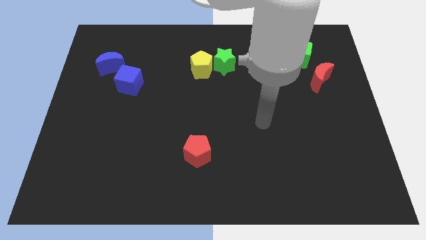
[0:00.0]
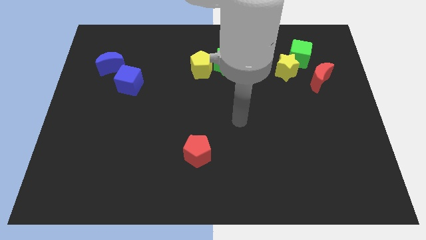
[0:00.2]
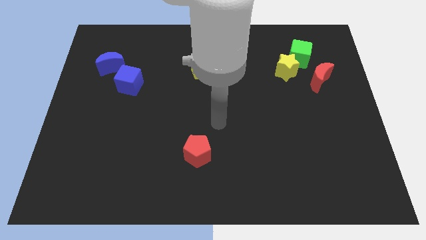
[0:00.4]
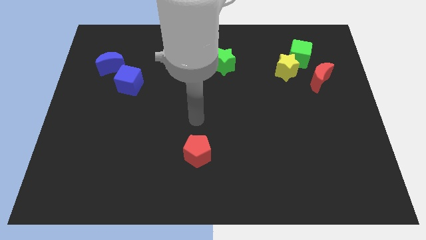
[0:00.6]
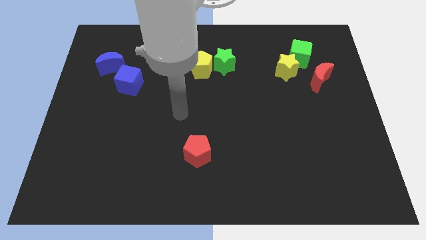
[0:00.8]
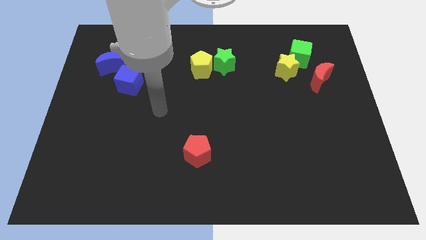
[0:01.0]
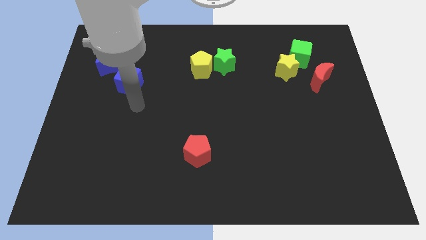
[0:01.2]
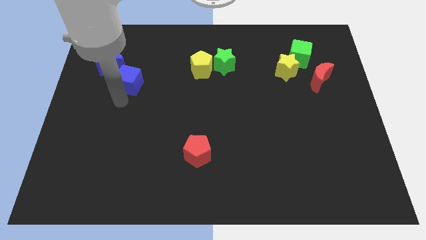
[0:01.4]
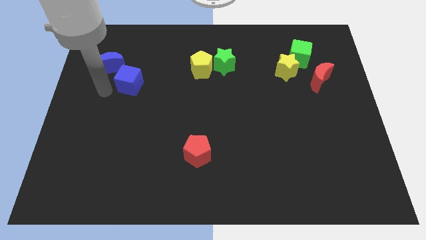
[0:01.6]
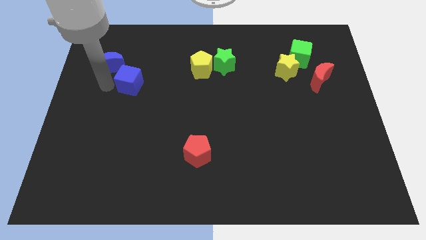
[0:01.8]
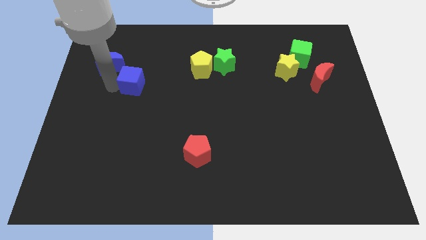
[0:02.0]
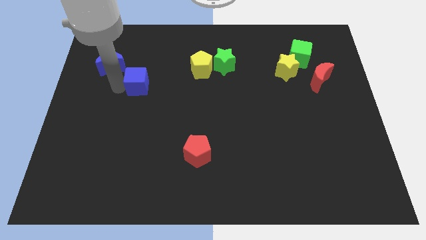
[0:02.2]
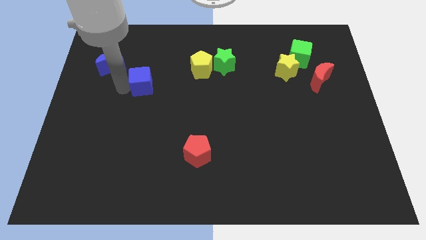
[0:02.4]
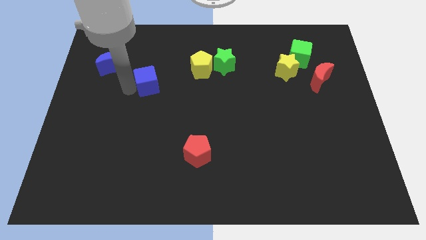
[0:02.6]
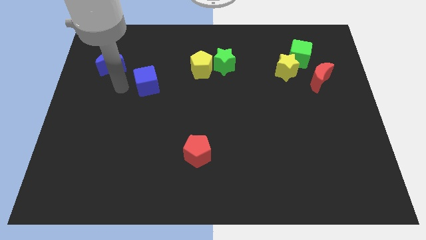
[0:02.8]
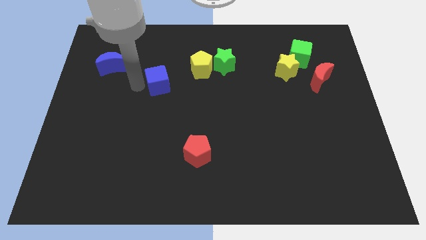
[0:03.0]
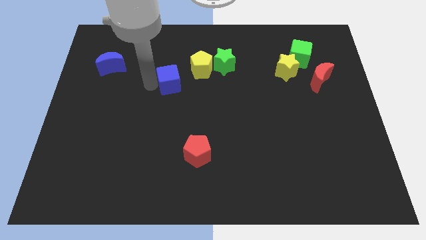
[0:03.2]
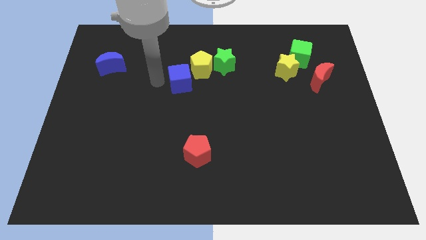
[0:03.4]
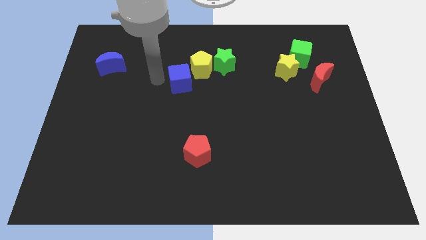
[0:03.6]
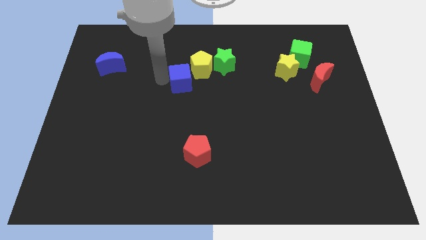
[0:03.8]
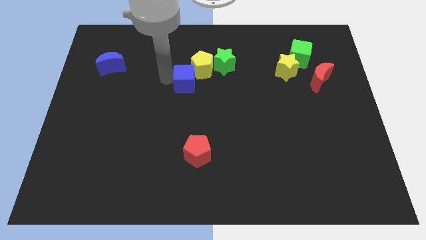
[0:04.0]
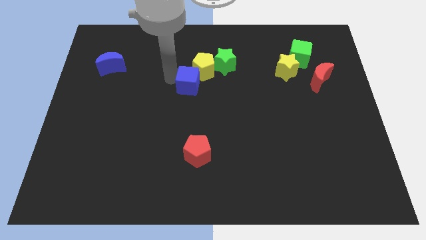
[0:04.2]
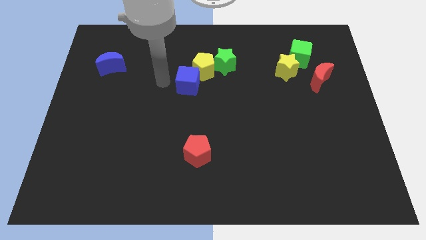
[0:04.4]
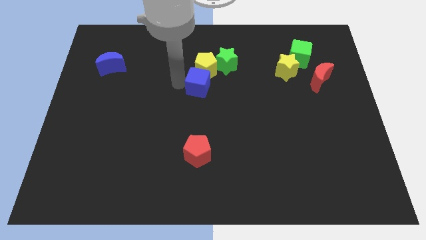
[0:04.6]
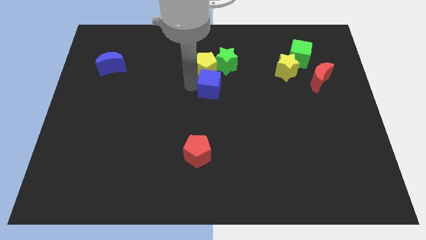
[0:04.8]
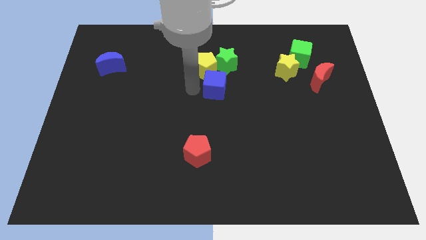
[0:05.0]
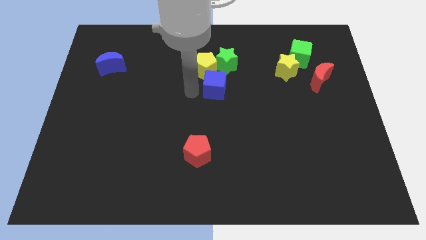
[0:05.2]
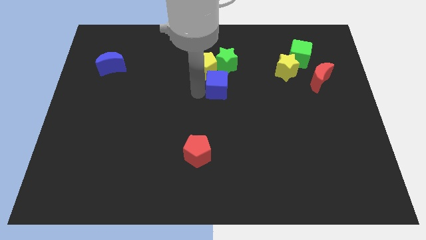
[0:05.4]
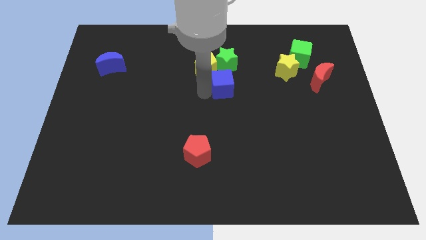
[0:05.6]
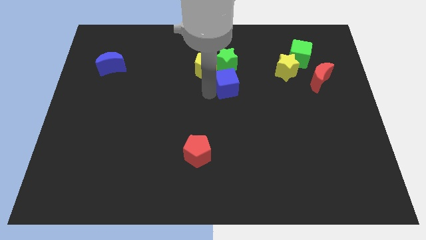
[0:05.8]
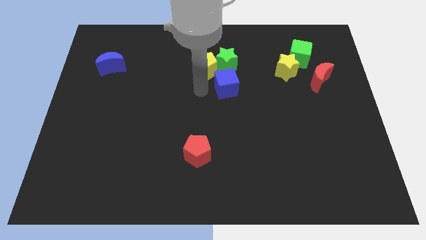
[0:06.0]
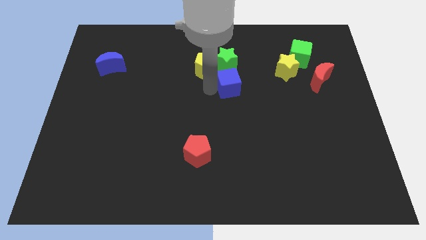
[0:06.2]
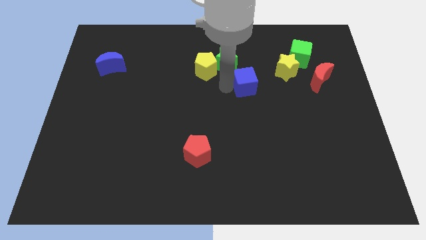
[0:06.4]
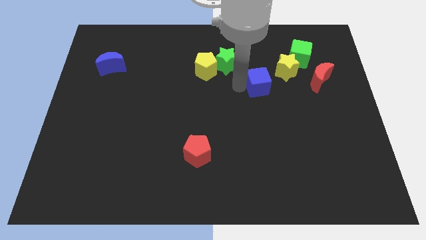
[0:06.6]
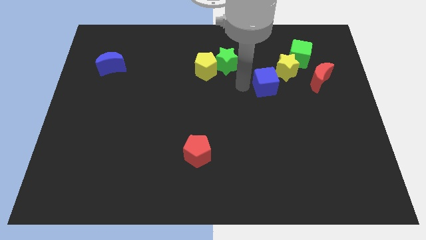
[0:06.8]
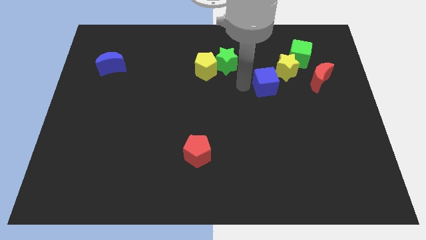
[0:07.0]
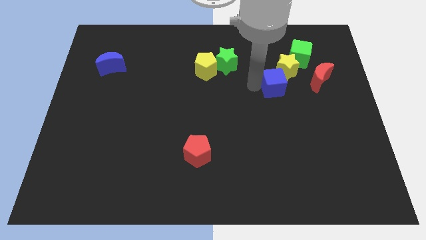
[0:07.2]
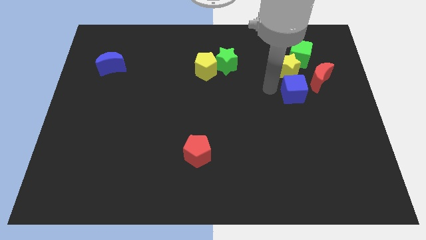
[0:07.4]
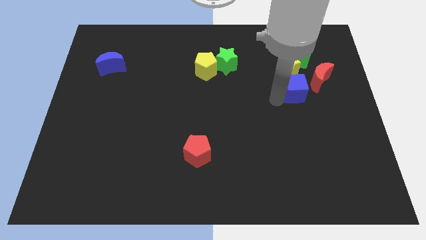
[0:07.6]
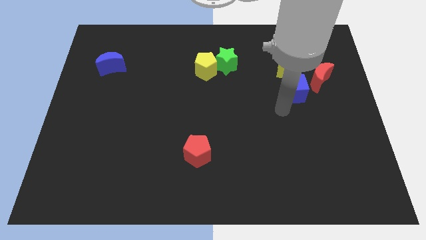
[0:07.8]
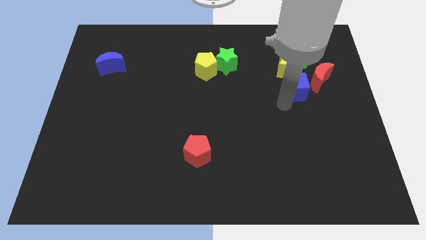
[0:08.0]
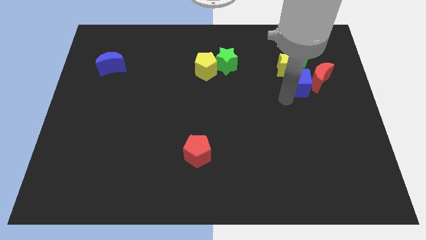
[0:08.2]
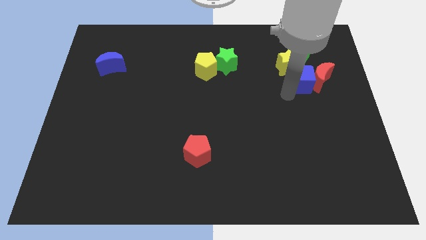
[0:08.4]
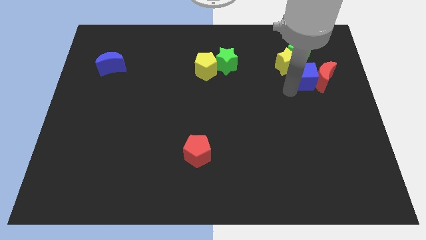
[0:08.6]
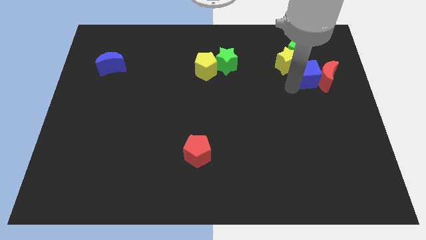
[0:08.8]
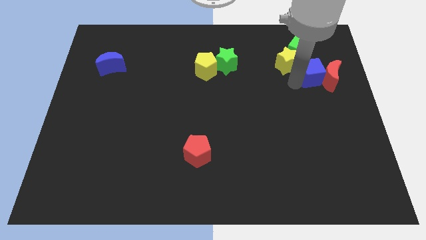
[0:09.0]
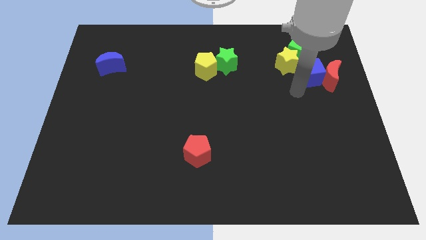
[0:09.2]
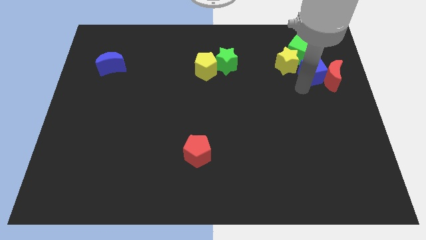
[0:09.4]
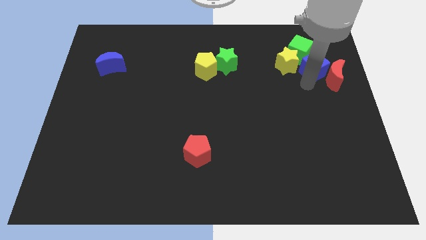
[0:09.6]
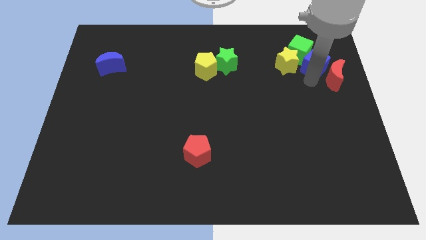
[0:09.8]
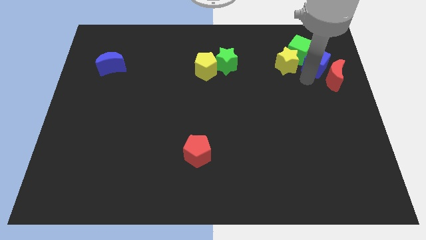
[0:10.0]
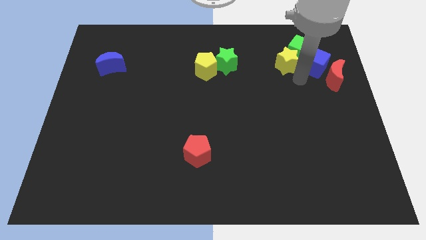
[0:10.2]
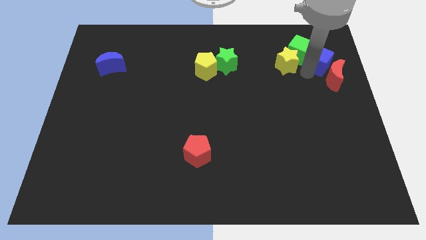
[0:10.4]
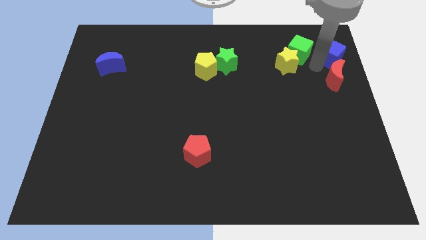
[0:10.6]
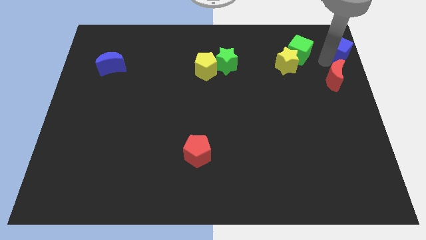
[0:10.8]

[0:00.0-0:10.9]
move the blue cube to the top right of the board

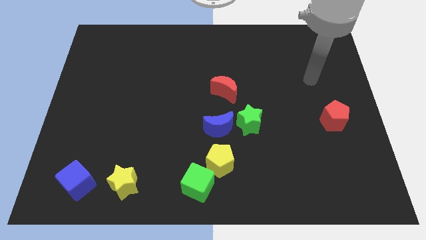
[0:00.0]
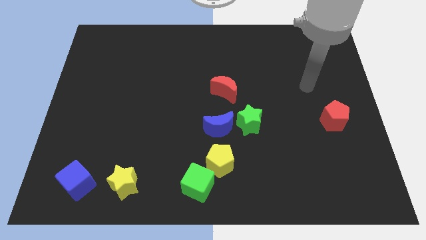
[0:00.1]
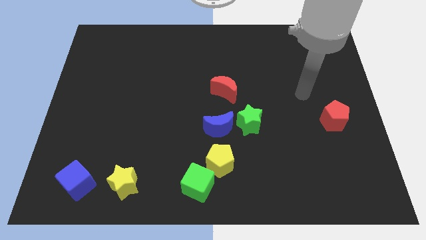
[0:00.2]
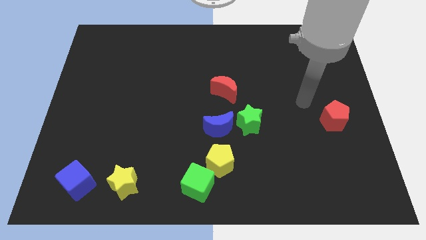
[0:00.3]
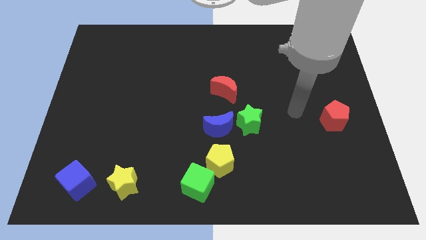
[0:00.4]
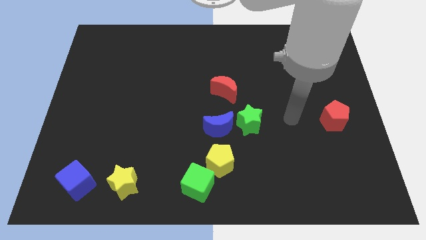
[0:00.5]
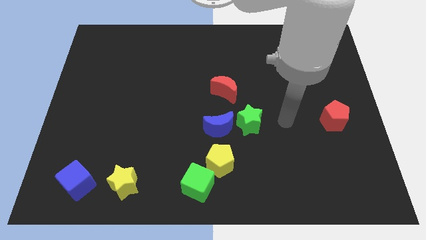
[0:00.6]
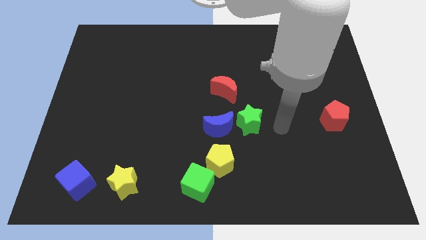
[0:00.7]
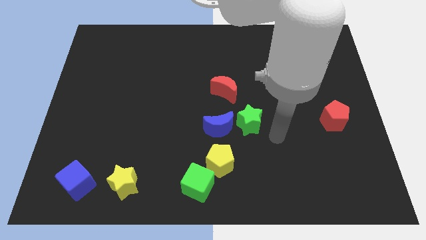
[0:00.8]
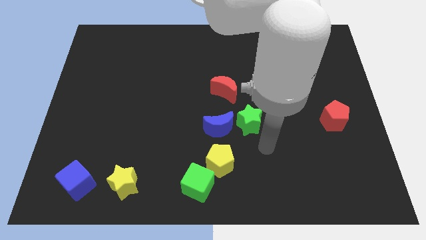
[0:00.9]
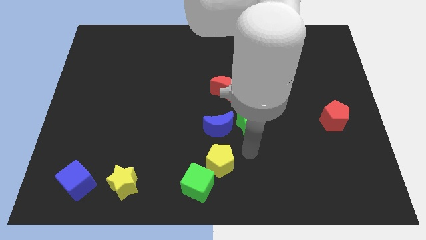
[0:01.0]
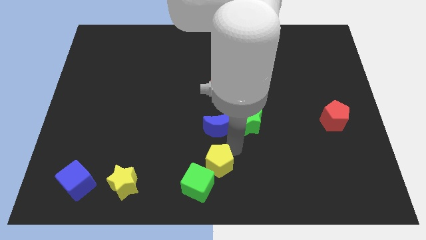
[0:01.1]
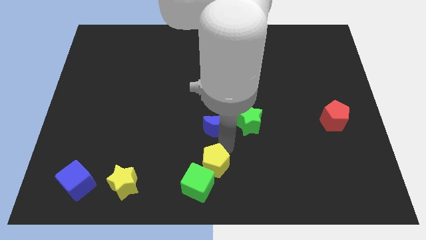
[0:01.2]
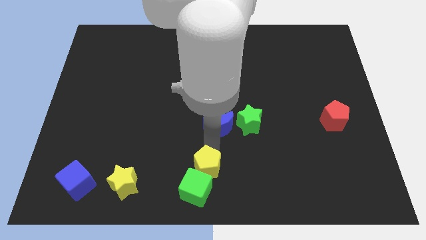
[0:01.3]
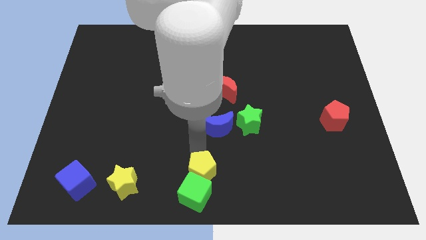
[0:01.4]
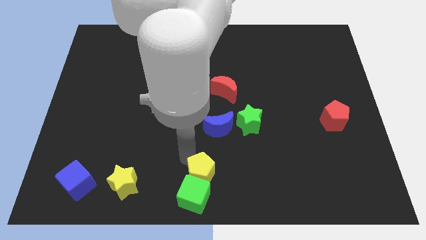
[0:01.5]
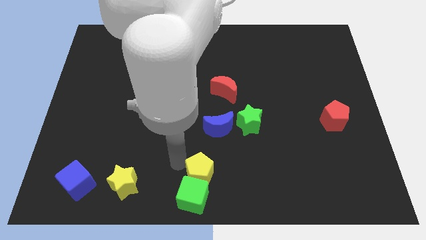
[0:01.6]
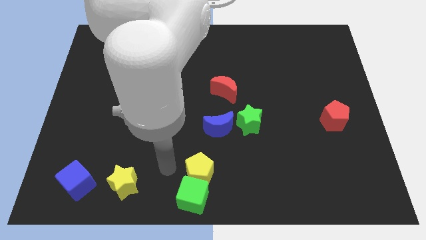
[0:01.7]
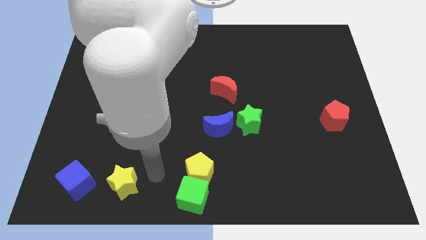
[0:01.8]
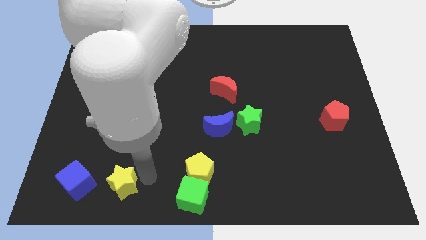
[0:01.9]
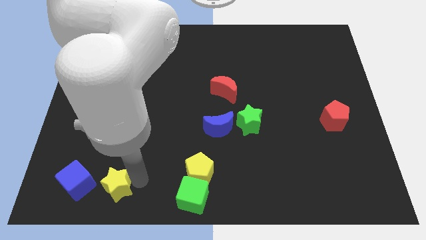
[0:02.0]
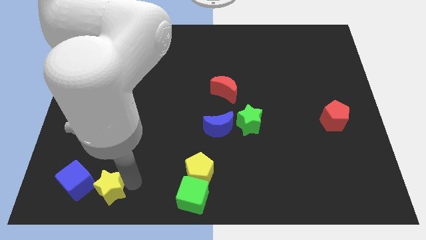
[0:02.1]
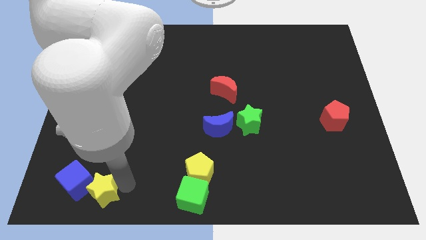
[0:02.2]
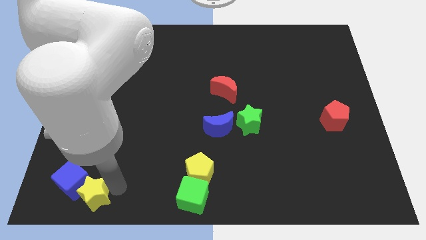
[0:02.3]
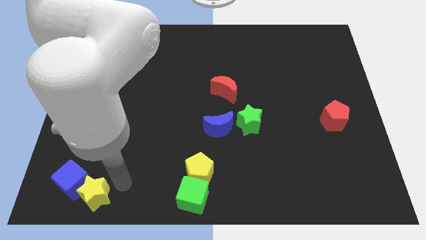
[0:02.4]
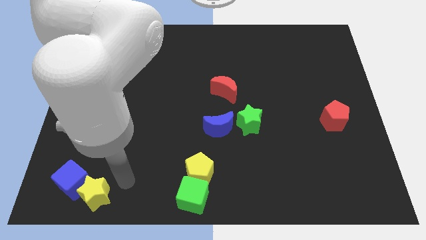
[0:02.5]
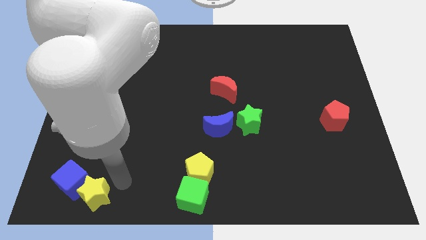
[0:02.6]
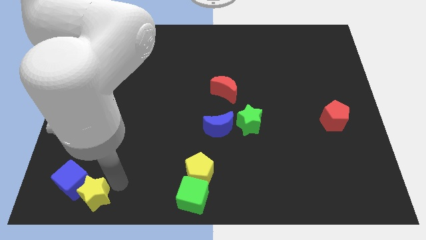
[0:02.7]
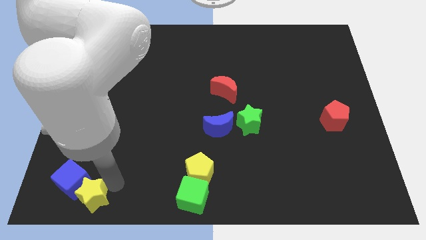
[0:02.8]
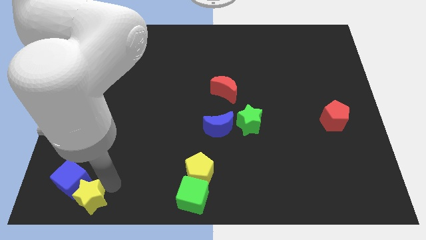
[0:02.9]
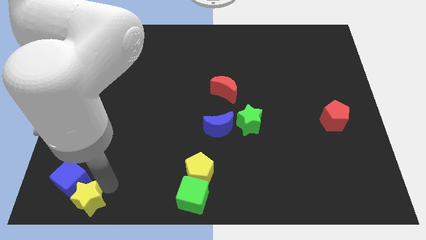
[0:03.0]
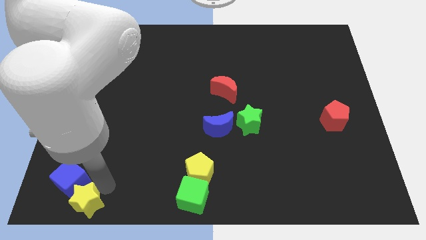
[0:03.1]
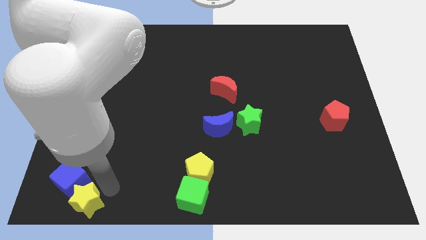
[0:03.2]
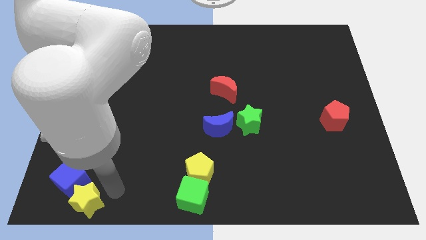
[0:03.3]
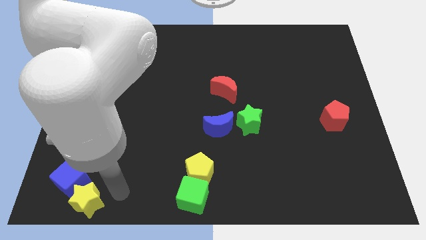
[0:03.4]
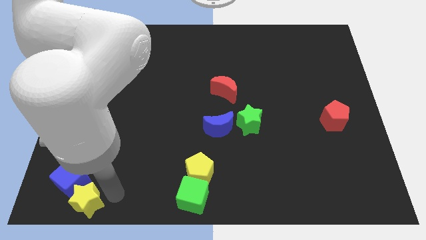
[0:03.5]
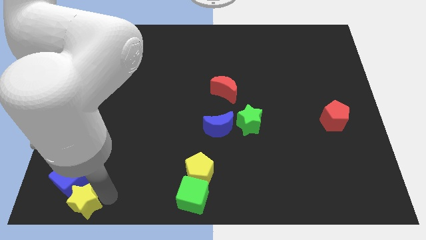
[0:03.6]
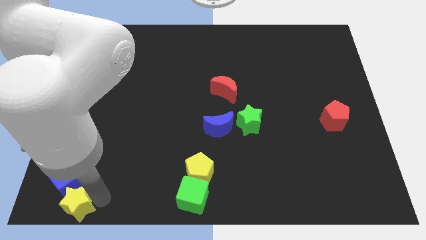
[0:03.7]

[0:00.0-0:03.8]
put the yellow star to the bottom left
